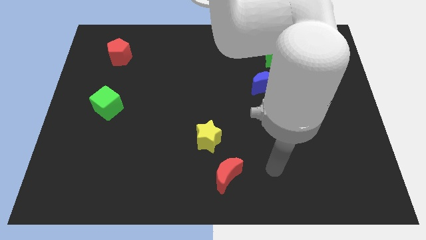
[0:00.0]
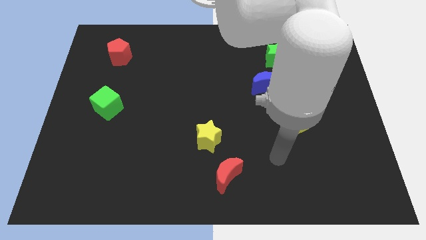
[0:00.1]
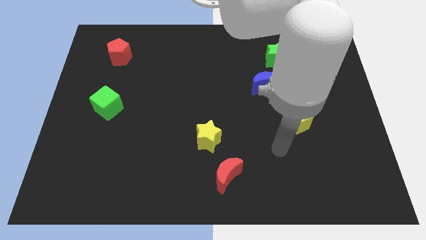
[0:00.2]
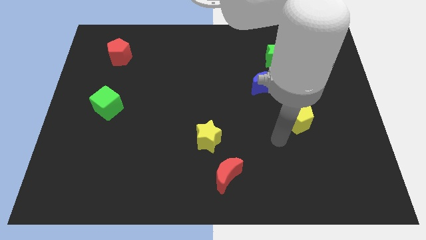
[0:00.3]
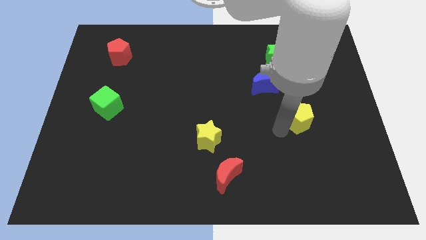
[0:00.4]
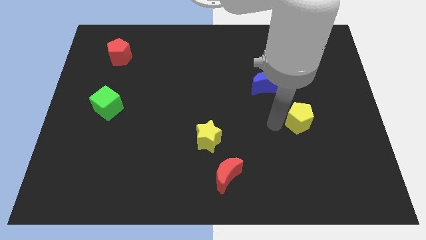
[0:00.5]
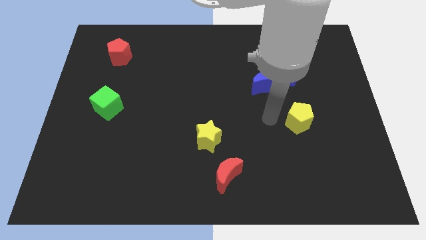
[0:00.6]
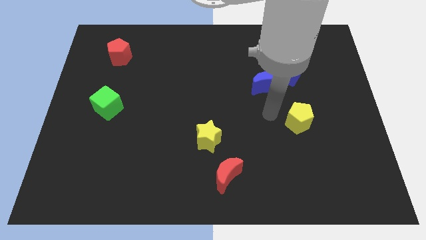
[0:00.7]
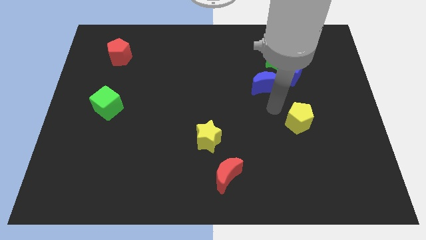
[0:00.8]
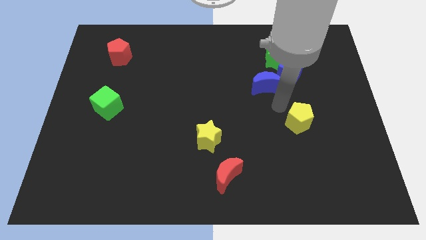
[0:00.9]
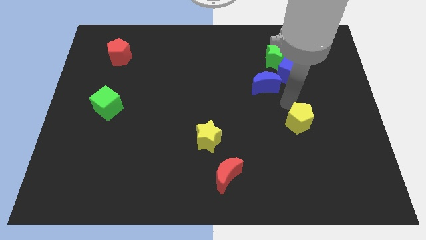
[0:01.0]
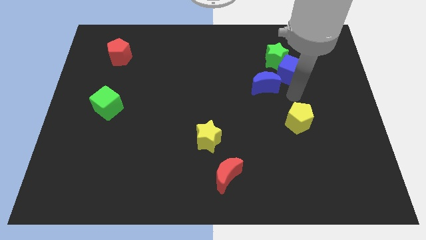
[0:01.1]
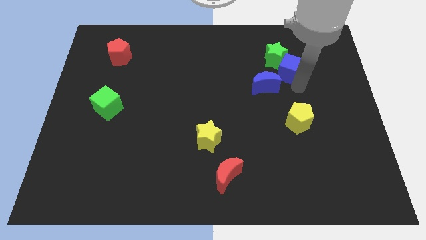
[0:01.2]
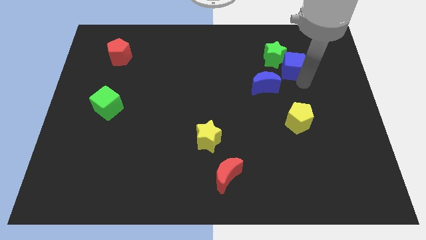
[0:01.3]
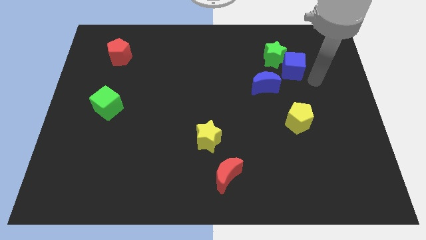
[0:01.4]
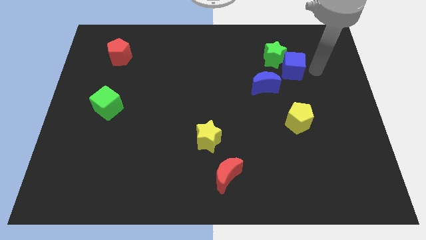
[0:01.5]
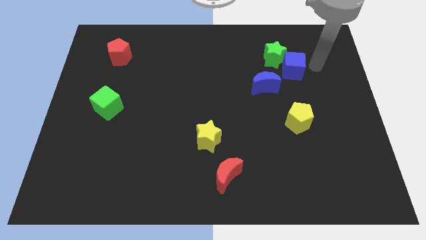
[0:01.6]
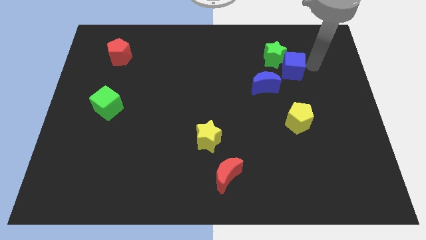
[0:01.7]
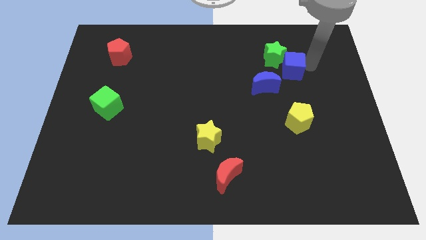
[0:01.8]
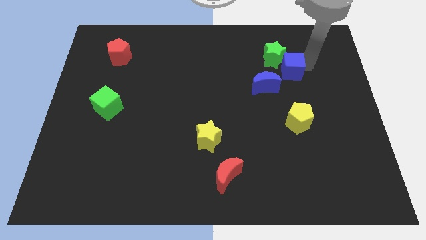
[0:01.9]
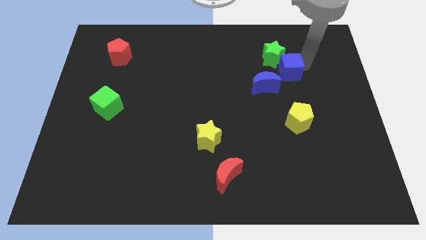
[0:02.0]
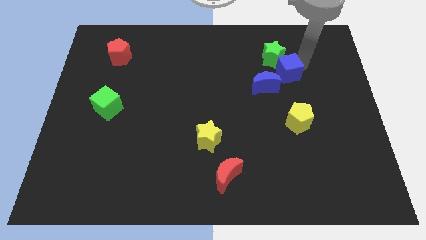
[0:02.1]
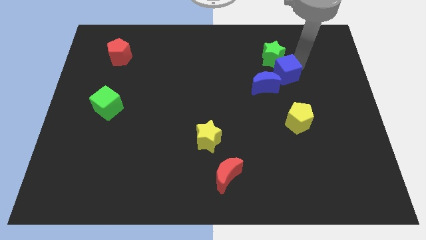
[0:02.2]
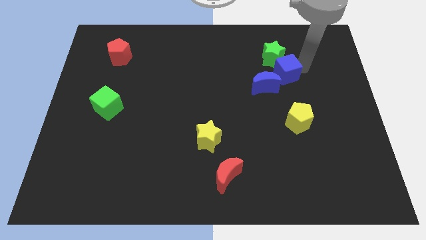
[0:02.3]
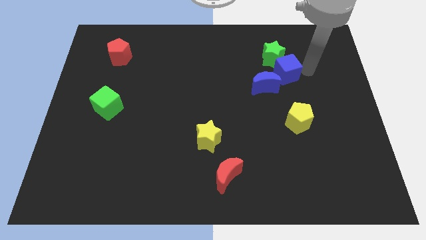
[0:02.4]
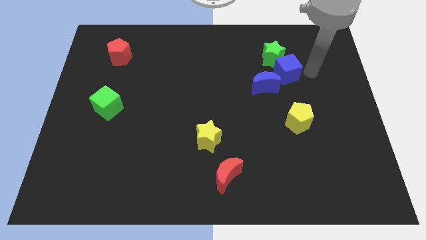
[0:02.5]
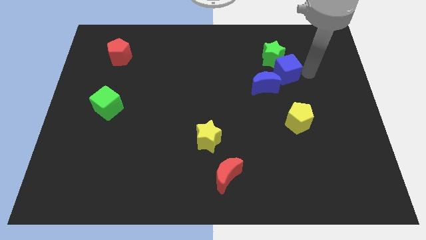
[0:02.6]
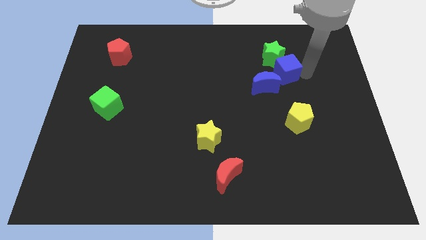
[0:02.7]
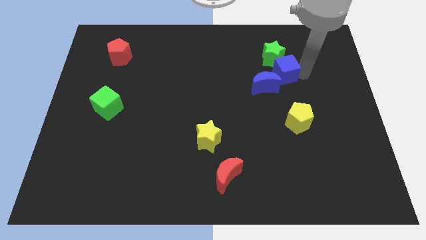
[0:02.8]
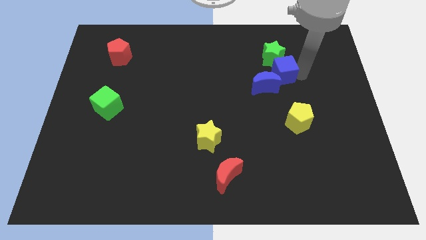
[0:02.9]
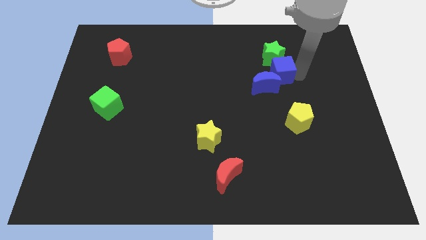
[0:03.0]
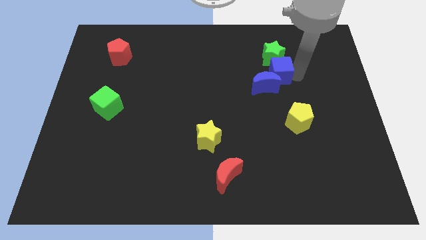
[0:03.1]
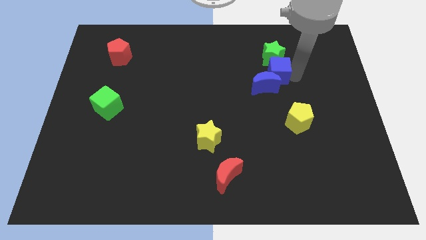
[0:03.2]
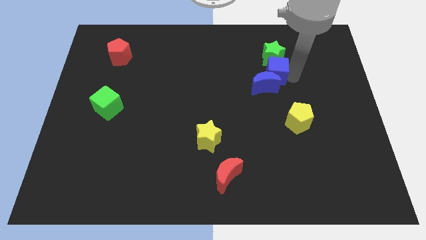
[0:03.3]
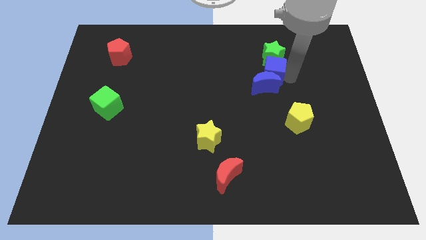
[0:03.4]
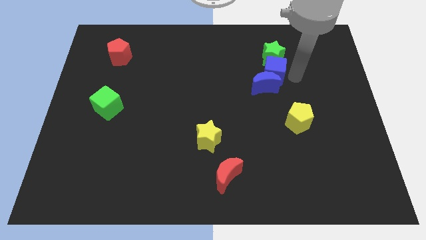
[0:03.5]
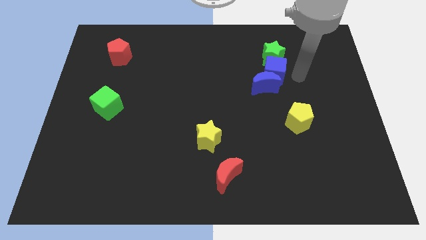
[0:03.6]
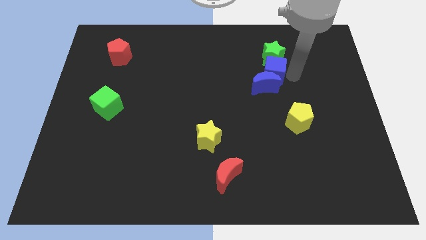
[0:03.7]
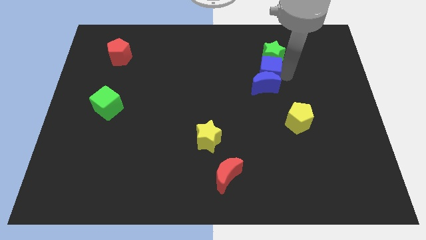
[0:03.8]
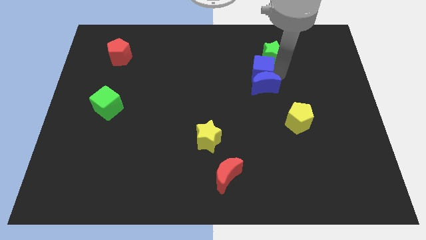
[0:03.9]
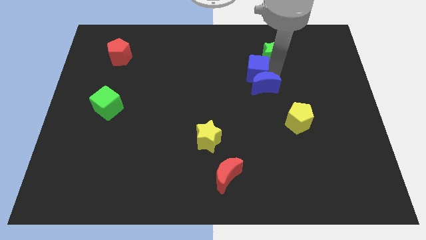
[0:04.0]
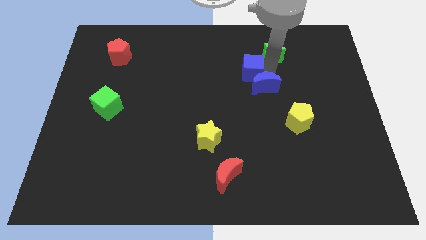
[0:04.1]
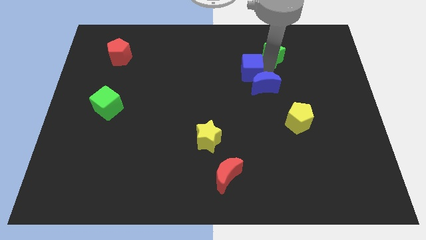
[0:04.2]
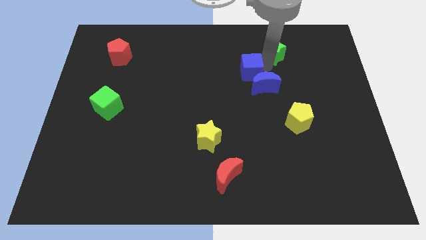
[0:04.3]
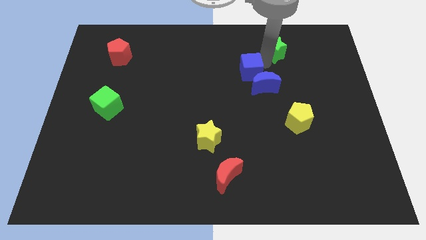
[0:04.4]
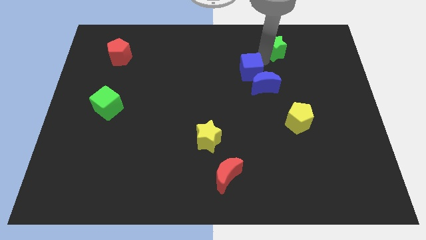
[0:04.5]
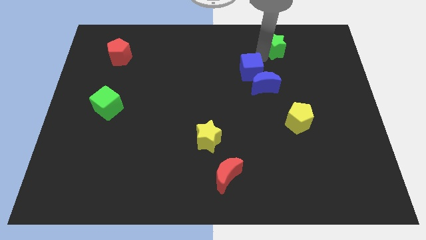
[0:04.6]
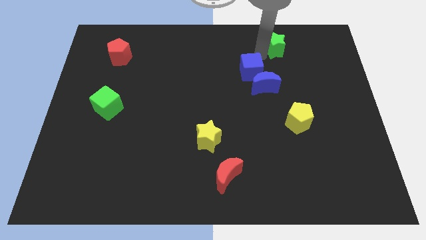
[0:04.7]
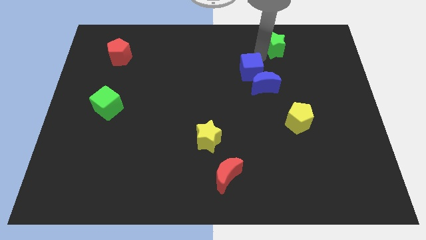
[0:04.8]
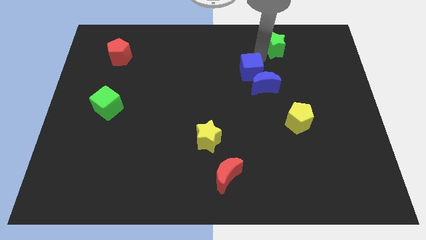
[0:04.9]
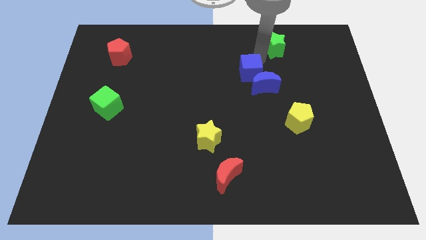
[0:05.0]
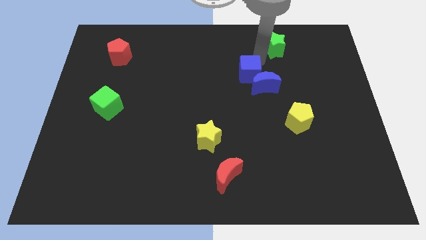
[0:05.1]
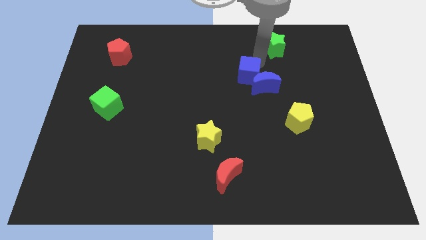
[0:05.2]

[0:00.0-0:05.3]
push the blue cube to the middle of the board
